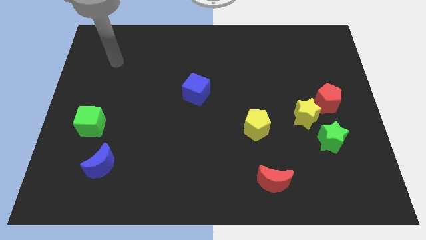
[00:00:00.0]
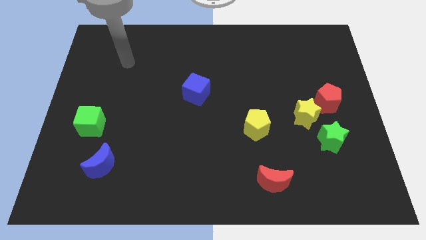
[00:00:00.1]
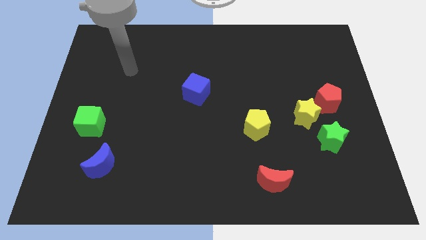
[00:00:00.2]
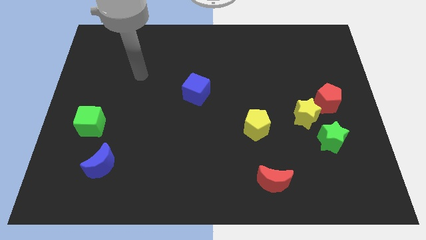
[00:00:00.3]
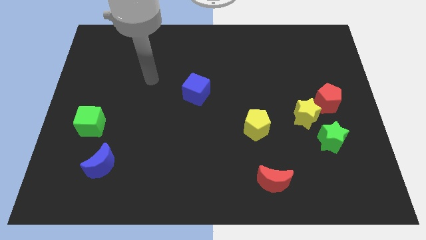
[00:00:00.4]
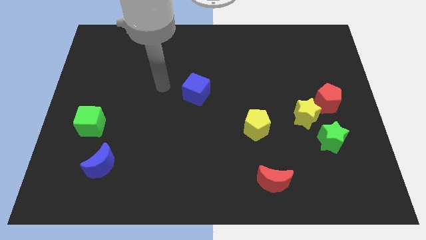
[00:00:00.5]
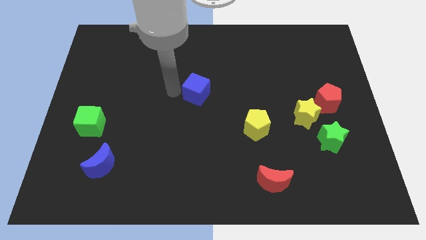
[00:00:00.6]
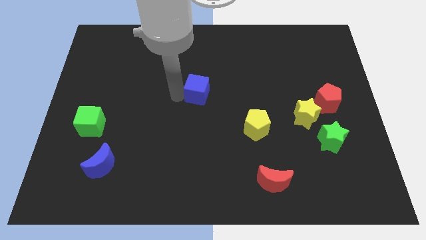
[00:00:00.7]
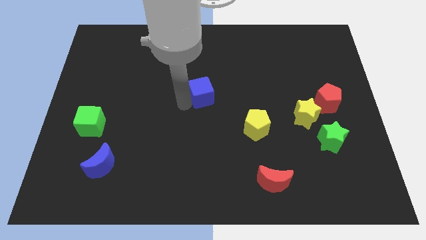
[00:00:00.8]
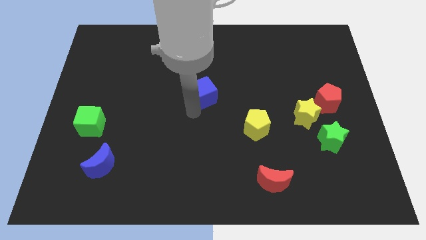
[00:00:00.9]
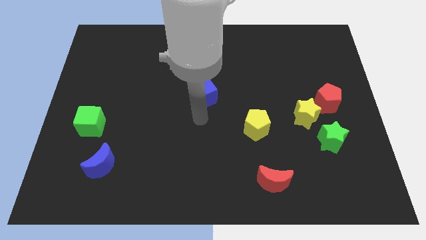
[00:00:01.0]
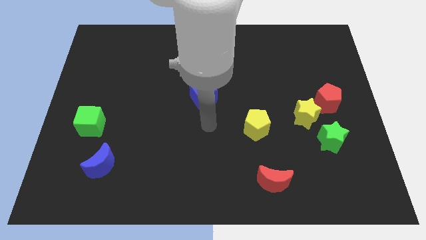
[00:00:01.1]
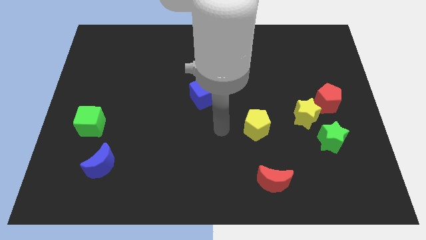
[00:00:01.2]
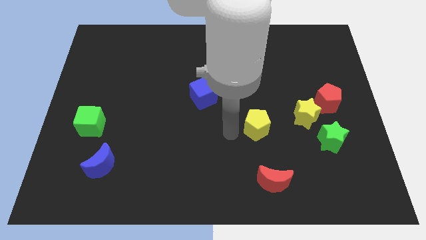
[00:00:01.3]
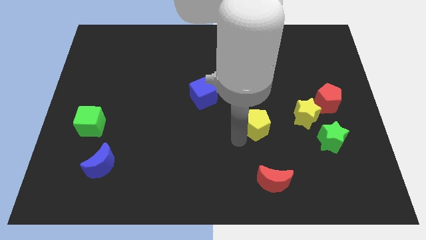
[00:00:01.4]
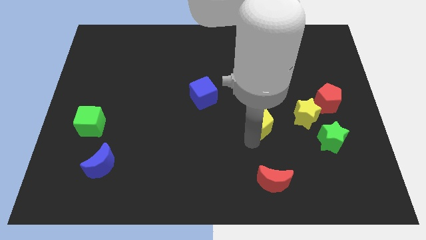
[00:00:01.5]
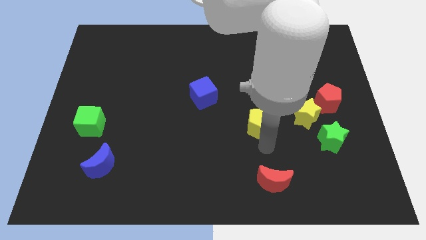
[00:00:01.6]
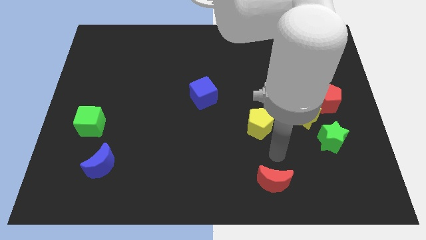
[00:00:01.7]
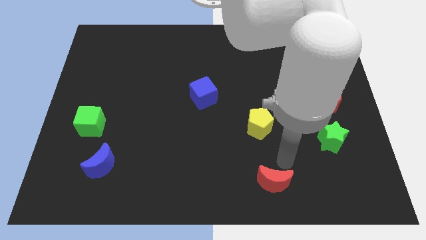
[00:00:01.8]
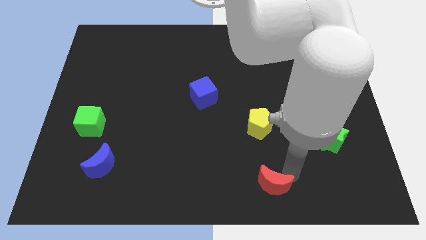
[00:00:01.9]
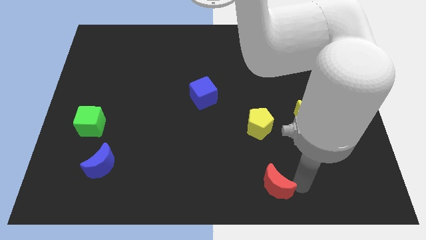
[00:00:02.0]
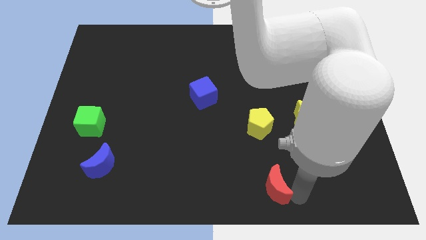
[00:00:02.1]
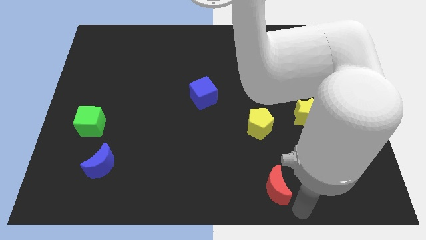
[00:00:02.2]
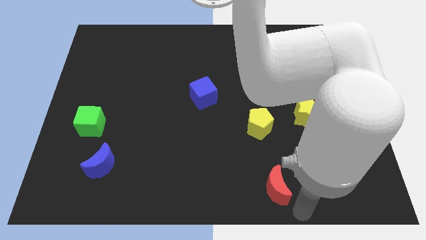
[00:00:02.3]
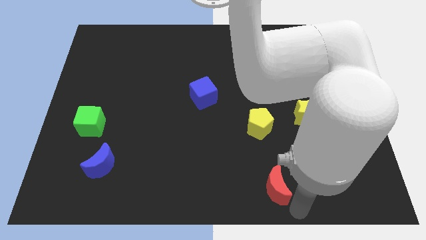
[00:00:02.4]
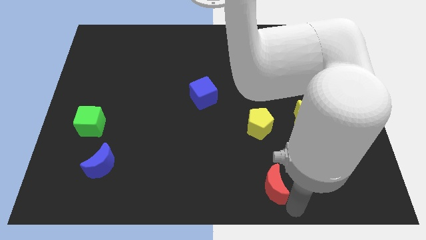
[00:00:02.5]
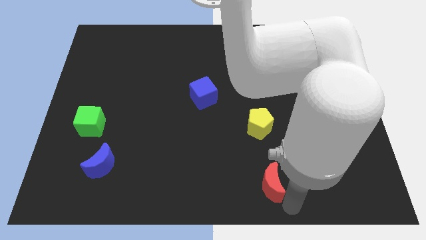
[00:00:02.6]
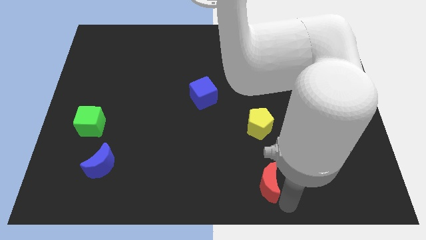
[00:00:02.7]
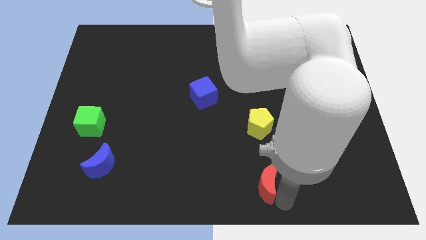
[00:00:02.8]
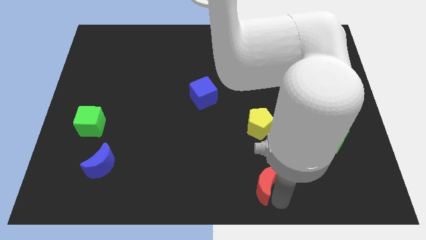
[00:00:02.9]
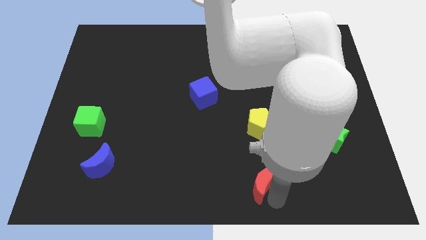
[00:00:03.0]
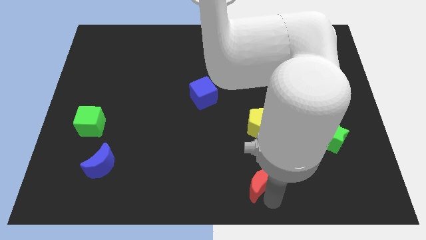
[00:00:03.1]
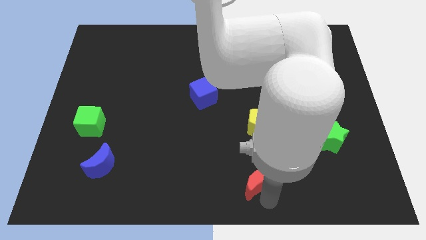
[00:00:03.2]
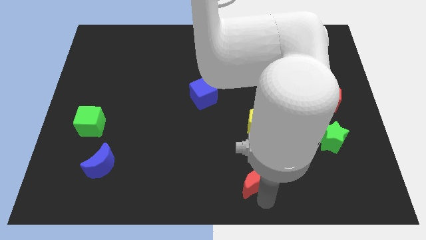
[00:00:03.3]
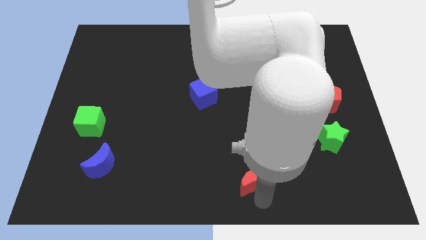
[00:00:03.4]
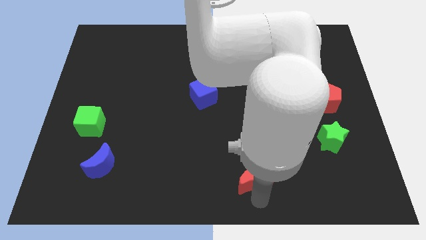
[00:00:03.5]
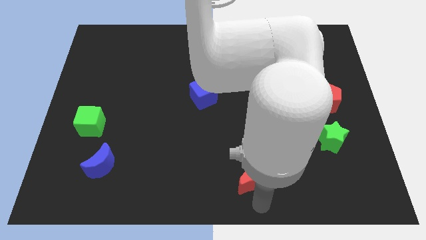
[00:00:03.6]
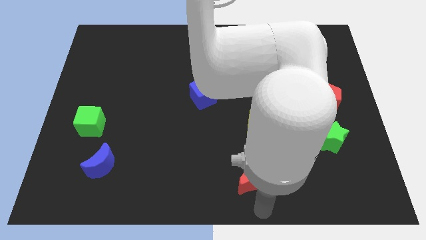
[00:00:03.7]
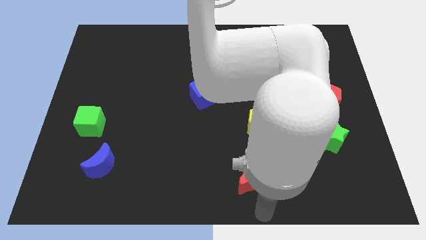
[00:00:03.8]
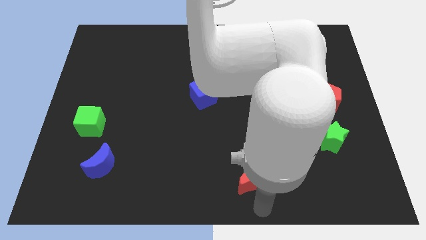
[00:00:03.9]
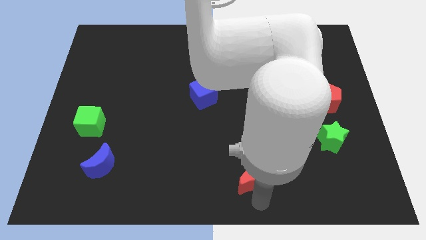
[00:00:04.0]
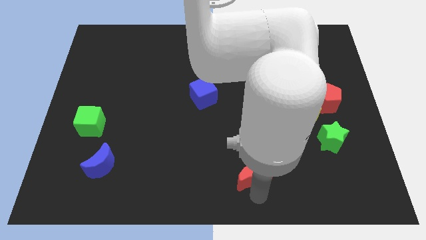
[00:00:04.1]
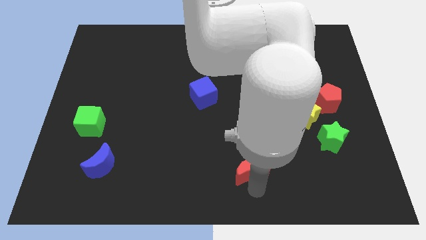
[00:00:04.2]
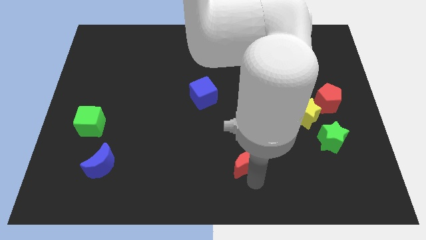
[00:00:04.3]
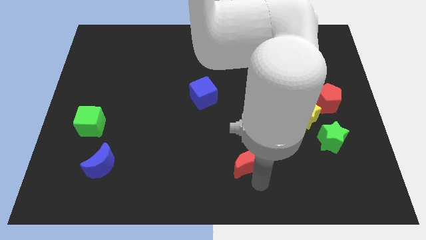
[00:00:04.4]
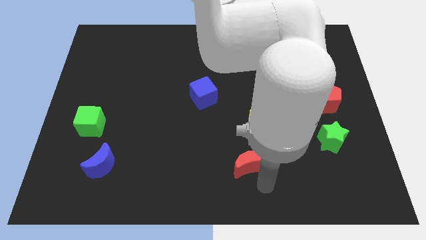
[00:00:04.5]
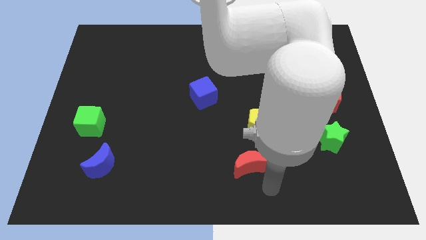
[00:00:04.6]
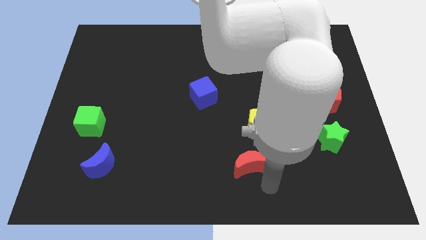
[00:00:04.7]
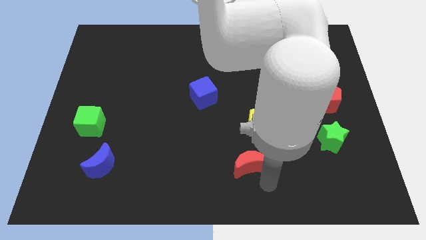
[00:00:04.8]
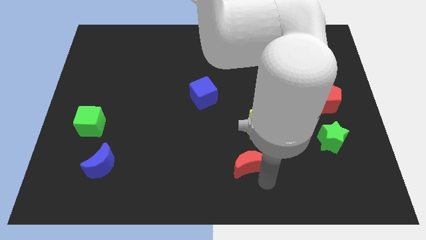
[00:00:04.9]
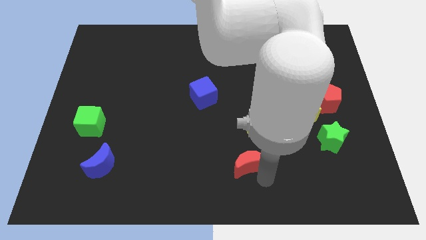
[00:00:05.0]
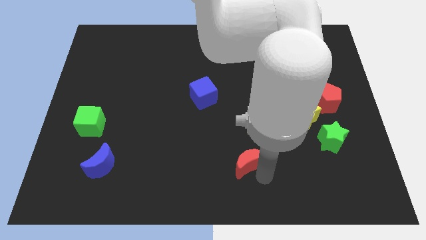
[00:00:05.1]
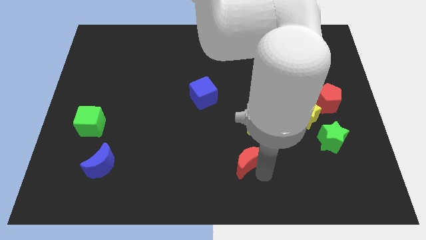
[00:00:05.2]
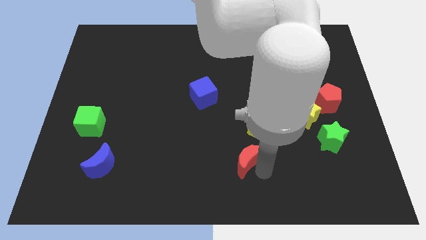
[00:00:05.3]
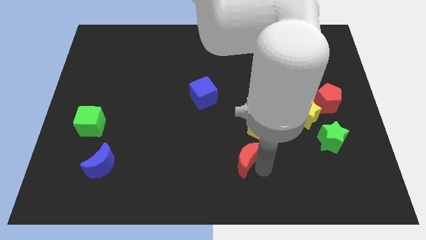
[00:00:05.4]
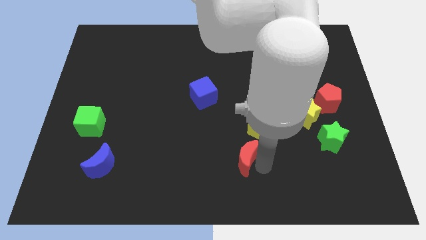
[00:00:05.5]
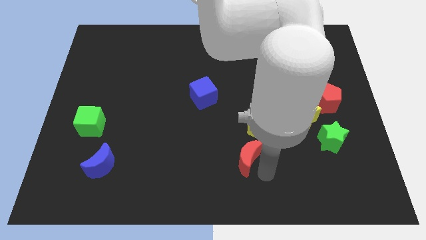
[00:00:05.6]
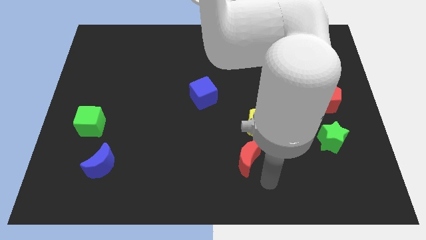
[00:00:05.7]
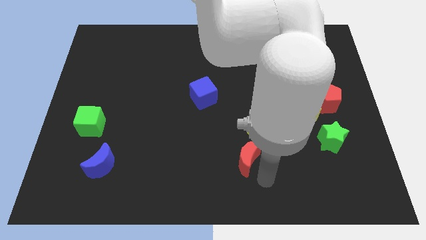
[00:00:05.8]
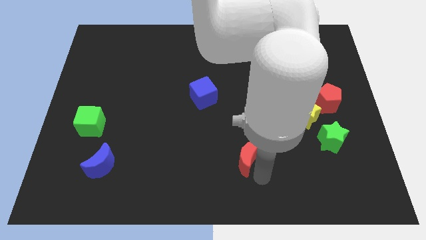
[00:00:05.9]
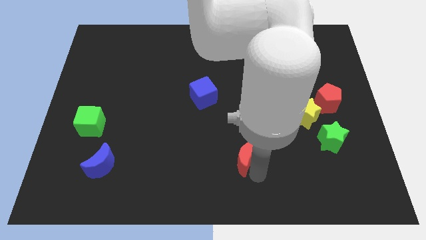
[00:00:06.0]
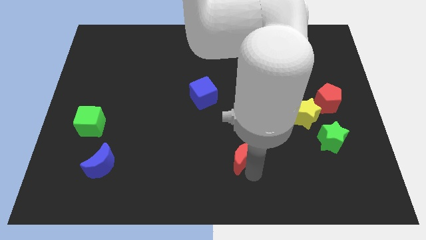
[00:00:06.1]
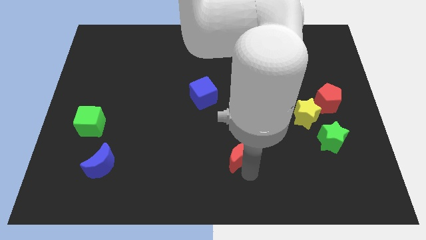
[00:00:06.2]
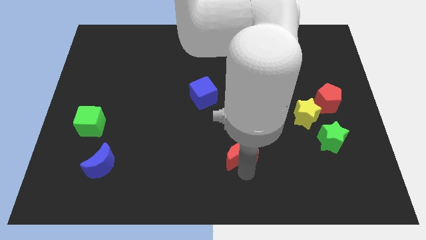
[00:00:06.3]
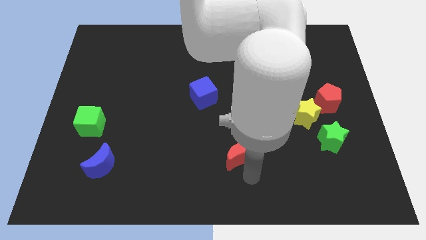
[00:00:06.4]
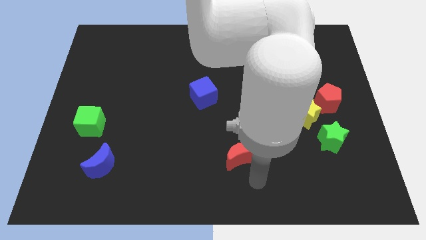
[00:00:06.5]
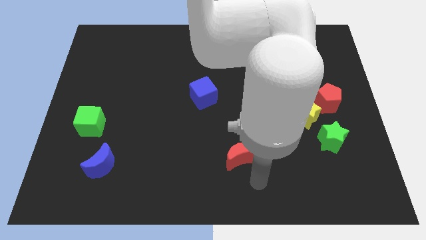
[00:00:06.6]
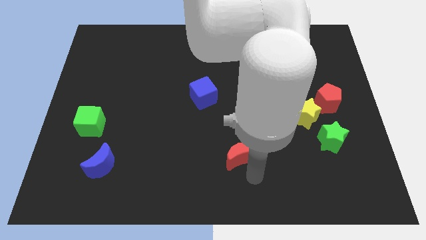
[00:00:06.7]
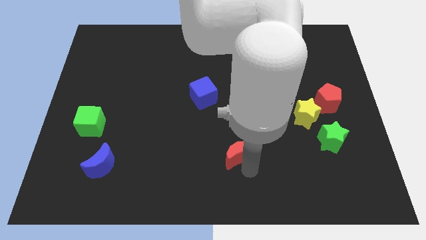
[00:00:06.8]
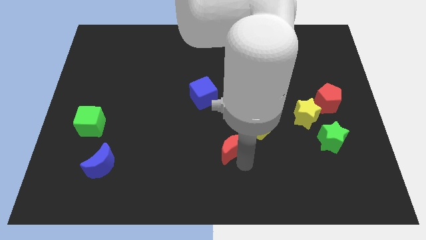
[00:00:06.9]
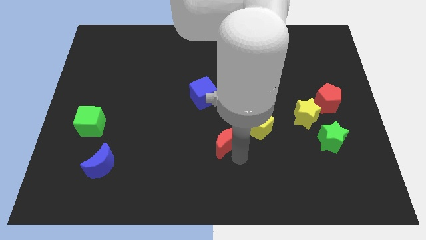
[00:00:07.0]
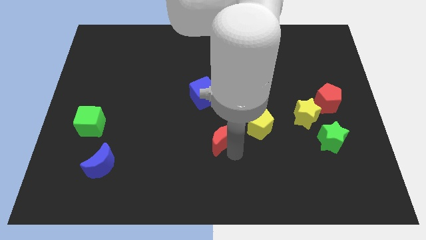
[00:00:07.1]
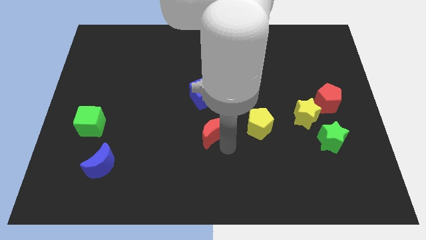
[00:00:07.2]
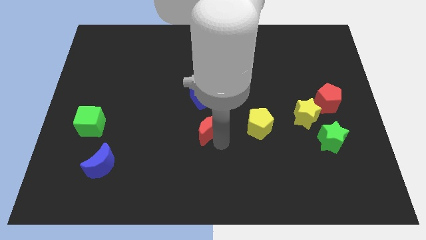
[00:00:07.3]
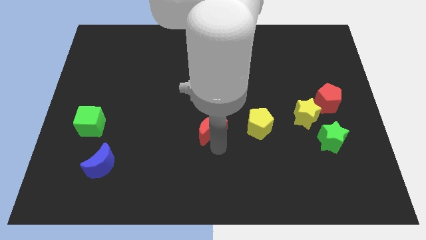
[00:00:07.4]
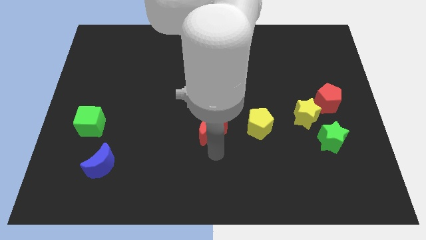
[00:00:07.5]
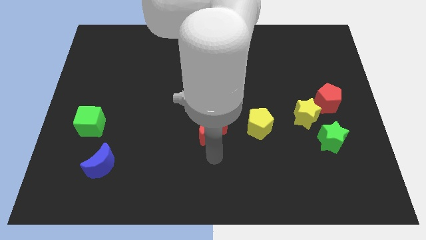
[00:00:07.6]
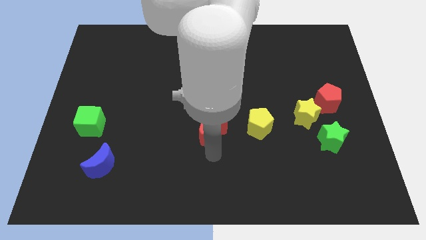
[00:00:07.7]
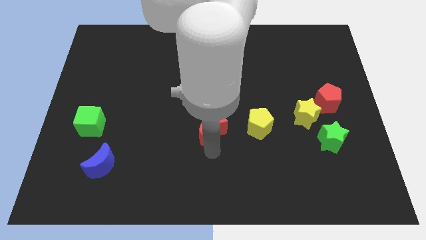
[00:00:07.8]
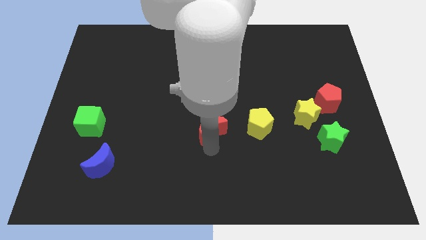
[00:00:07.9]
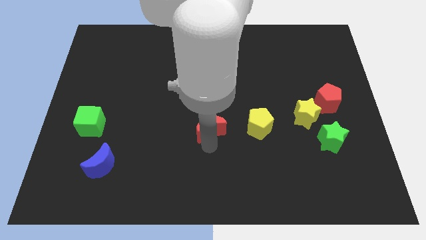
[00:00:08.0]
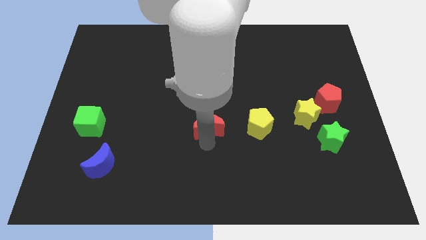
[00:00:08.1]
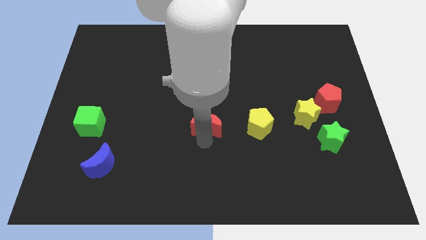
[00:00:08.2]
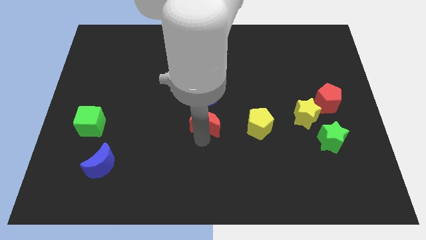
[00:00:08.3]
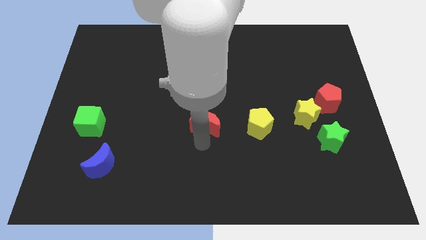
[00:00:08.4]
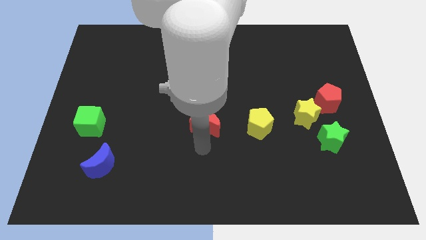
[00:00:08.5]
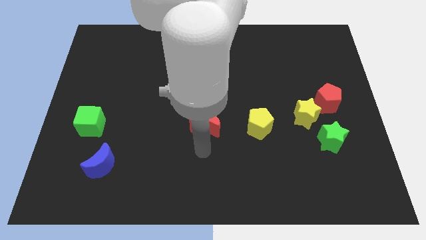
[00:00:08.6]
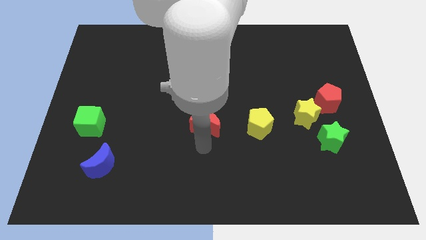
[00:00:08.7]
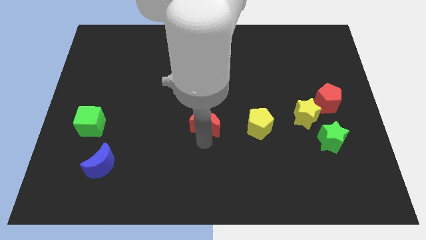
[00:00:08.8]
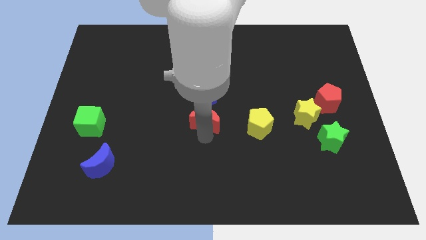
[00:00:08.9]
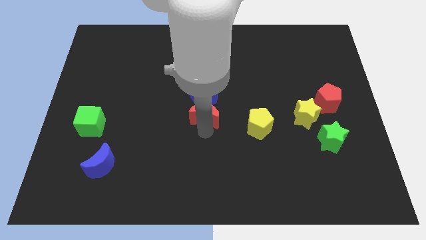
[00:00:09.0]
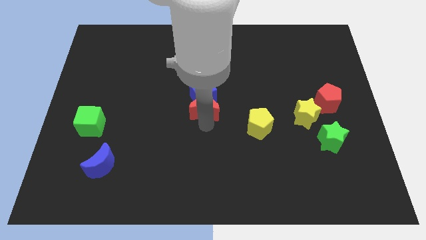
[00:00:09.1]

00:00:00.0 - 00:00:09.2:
push the red moon close to the blue cube
